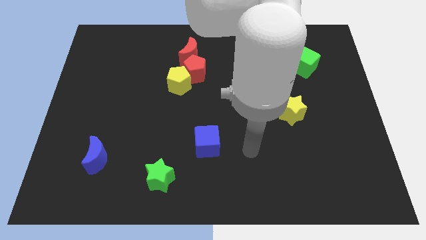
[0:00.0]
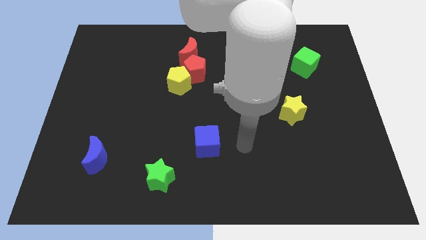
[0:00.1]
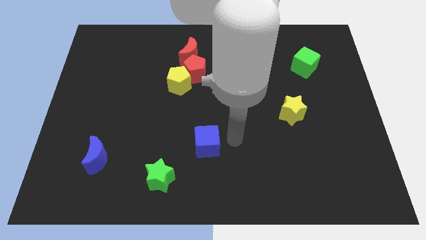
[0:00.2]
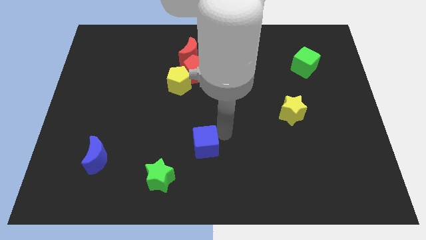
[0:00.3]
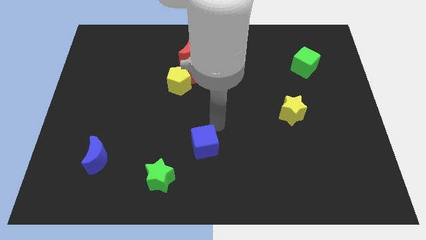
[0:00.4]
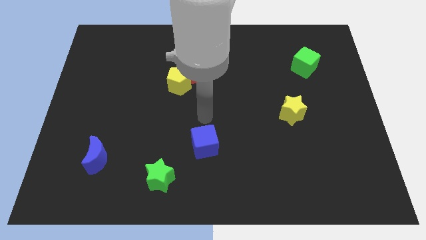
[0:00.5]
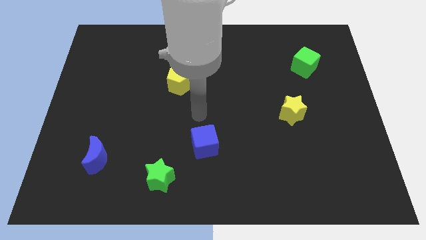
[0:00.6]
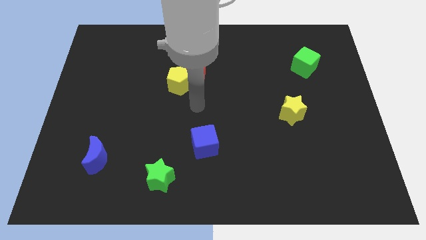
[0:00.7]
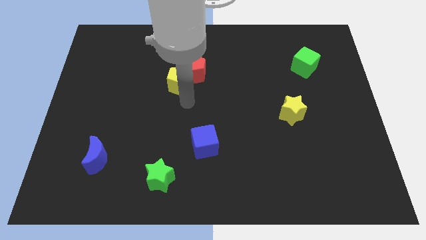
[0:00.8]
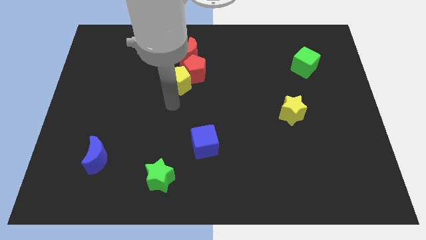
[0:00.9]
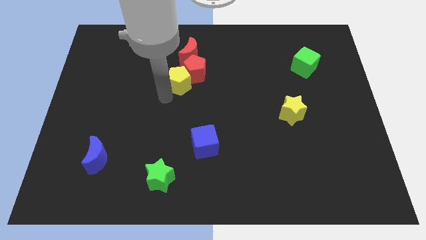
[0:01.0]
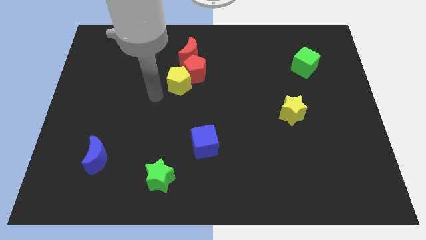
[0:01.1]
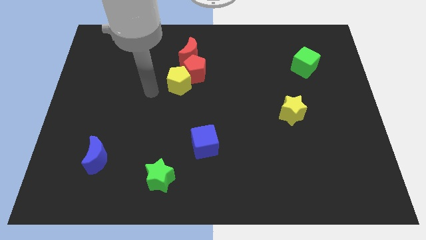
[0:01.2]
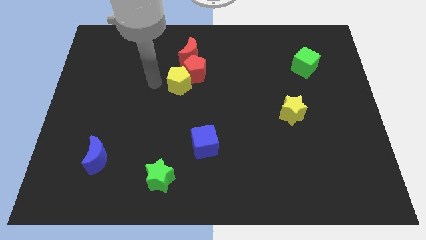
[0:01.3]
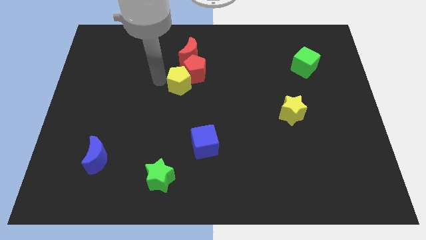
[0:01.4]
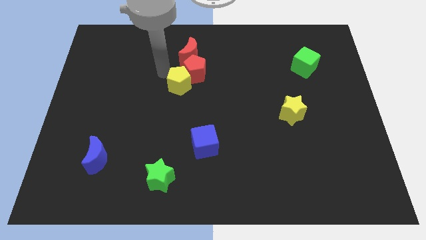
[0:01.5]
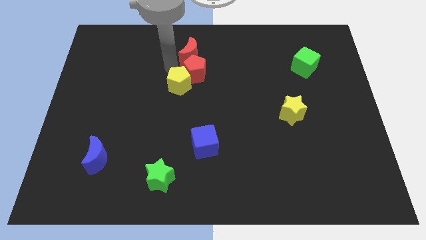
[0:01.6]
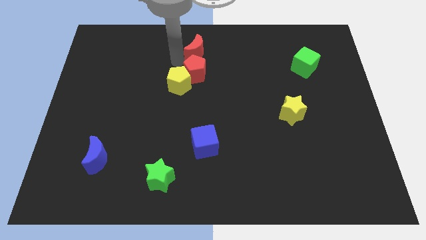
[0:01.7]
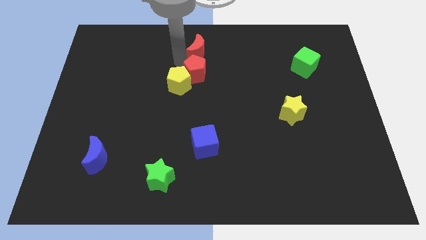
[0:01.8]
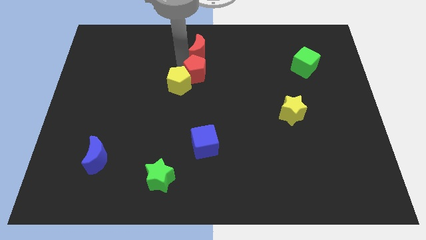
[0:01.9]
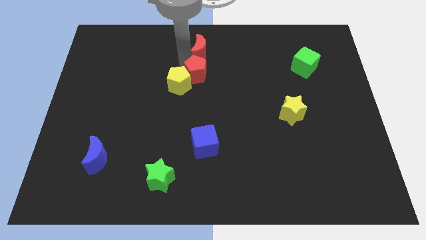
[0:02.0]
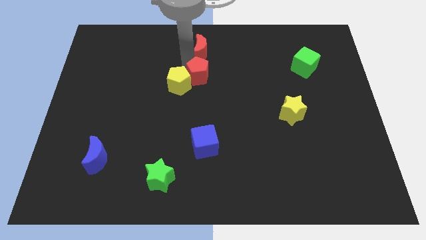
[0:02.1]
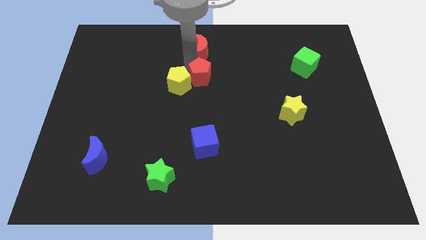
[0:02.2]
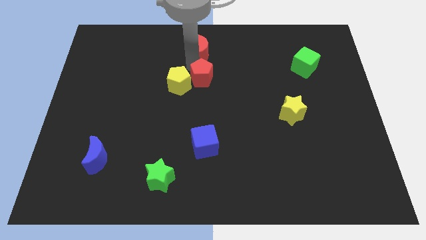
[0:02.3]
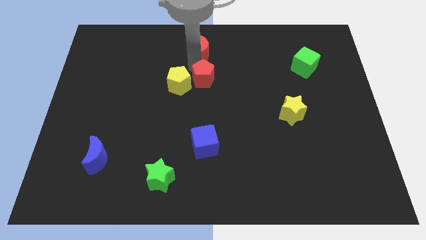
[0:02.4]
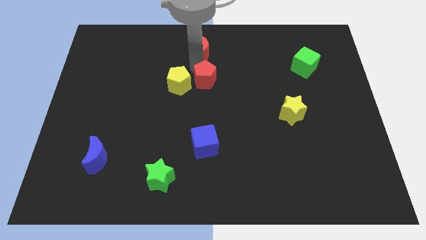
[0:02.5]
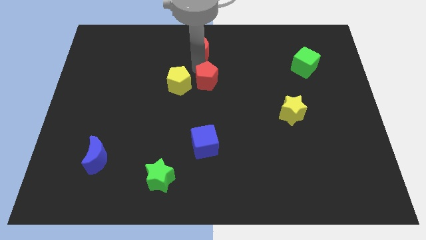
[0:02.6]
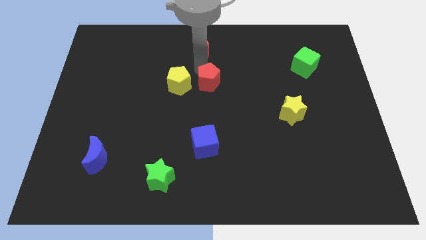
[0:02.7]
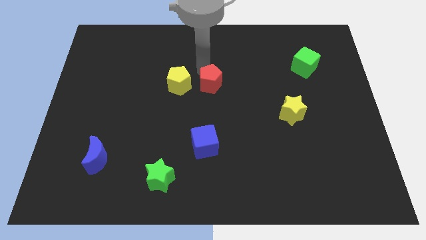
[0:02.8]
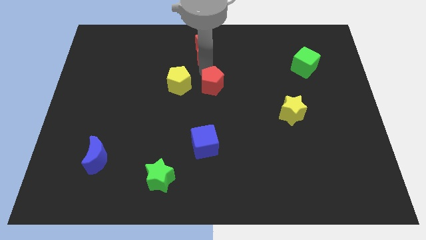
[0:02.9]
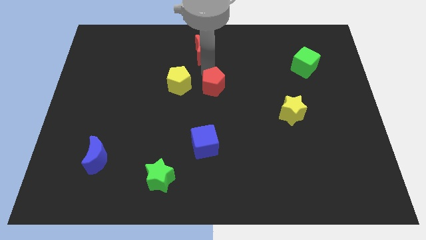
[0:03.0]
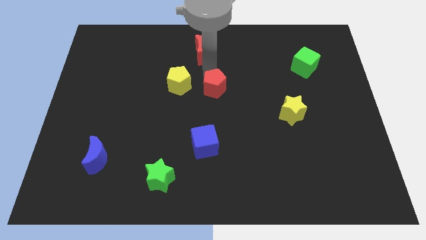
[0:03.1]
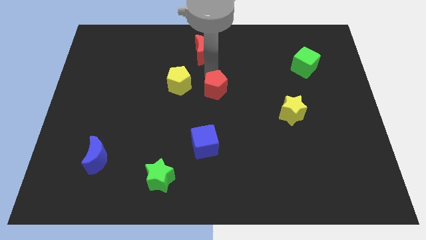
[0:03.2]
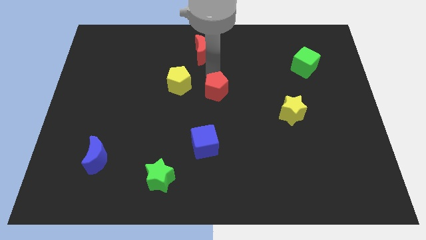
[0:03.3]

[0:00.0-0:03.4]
pull the red pentagon apart from the yellow pentagon and red moon

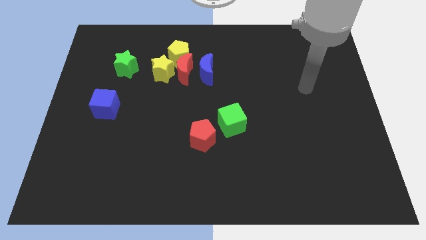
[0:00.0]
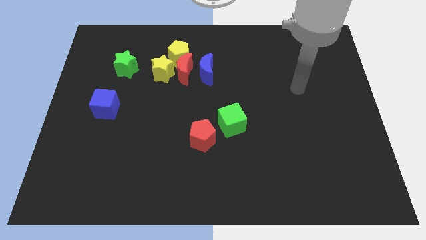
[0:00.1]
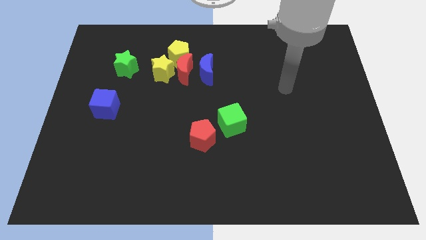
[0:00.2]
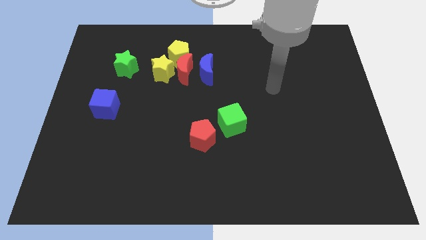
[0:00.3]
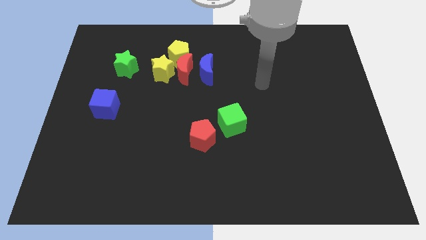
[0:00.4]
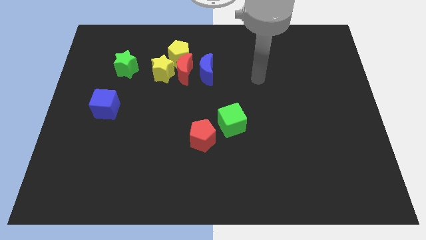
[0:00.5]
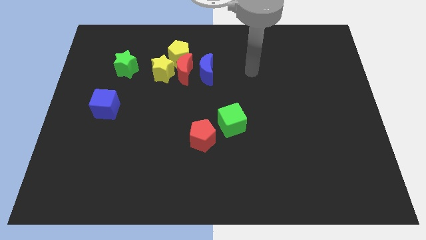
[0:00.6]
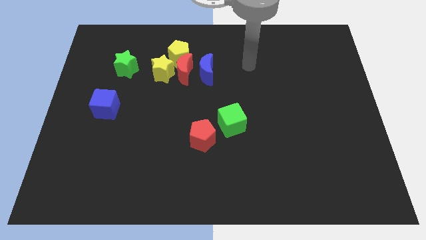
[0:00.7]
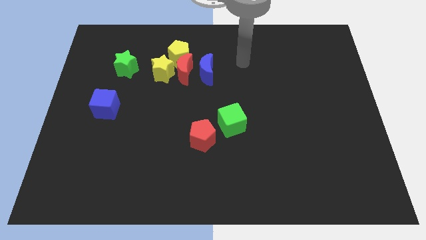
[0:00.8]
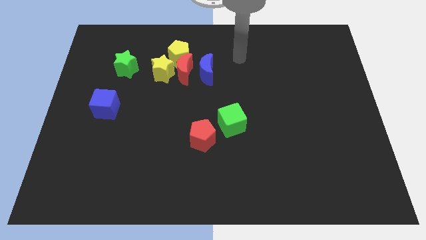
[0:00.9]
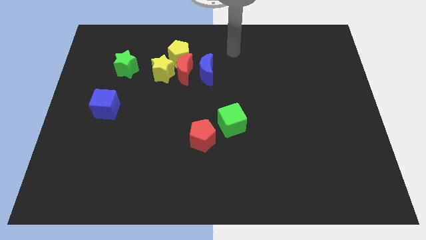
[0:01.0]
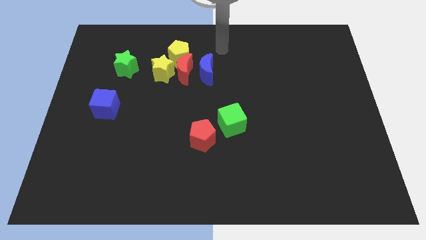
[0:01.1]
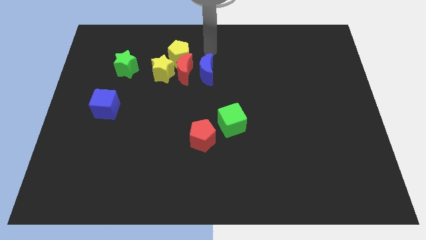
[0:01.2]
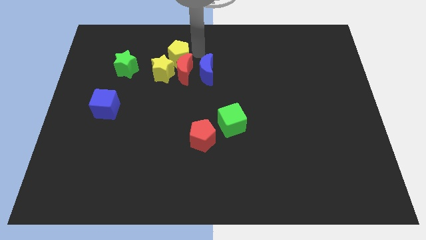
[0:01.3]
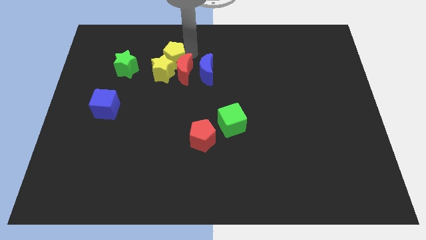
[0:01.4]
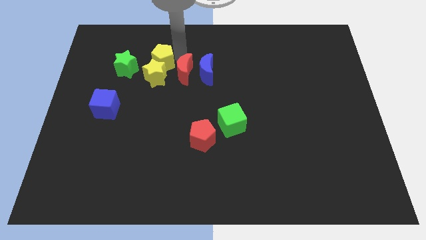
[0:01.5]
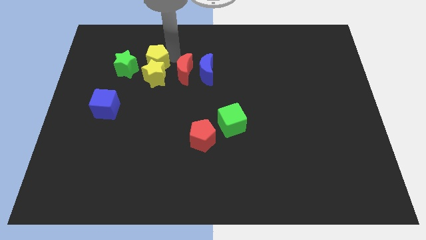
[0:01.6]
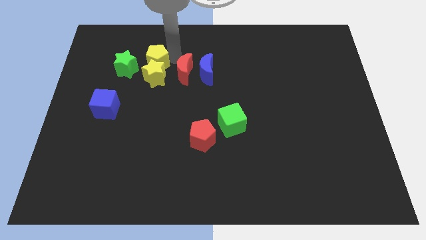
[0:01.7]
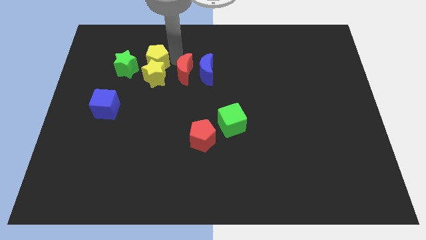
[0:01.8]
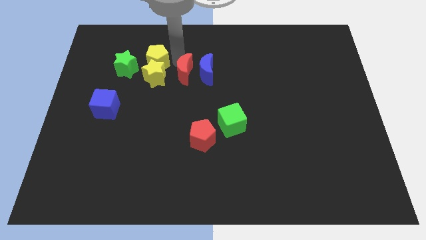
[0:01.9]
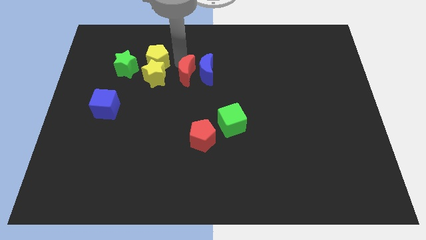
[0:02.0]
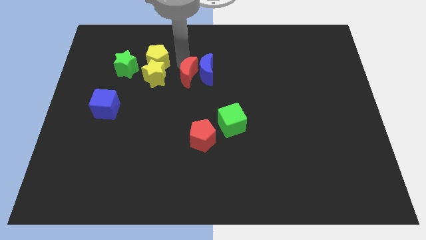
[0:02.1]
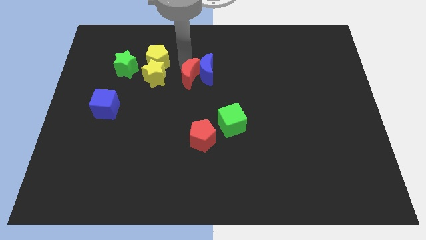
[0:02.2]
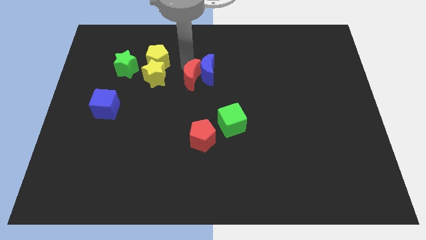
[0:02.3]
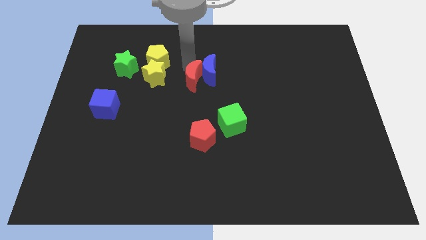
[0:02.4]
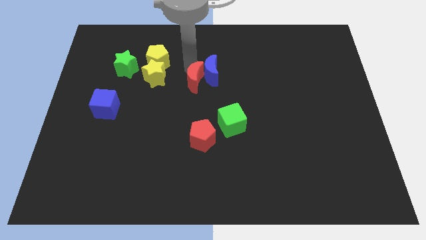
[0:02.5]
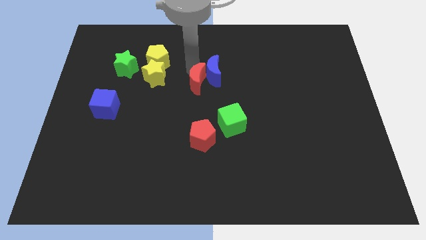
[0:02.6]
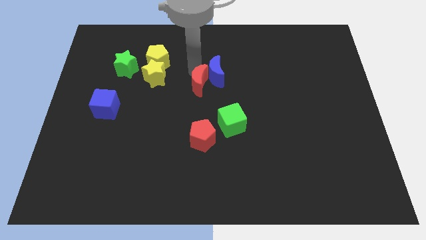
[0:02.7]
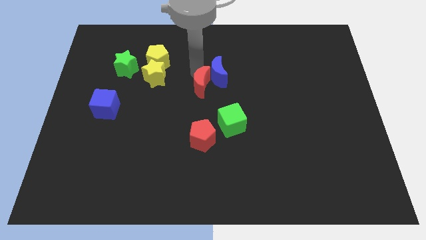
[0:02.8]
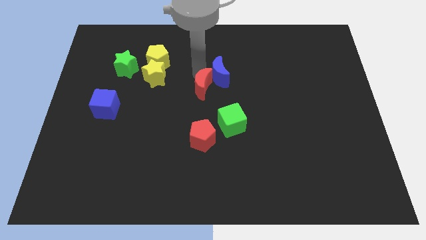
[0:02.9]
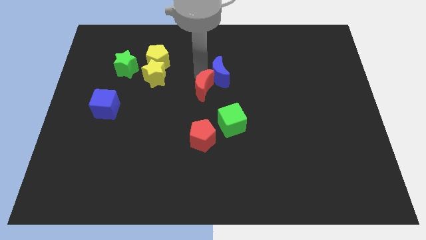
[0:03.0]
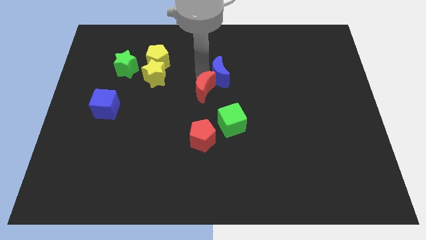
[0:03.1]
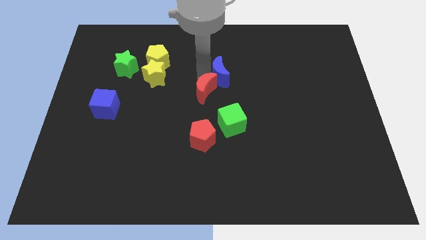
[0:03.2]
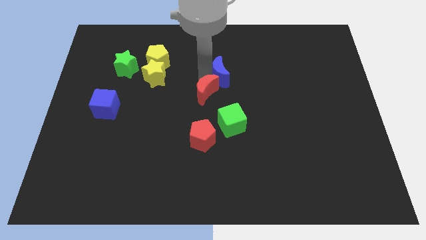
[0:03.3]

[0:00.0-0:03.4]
pull the red moon apart from the clump

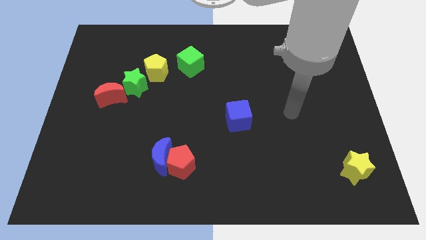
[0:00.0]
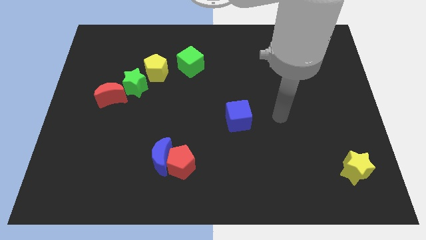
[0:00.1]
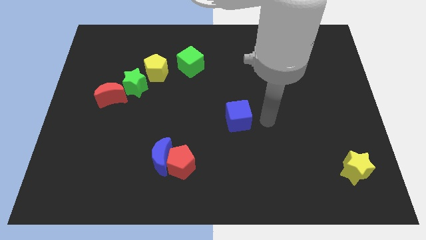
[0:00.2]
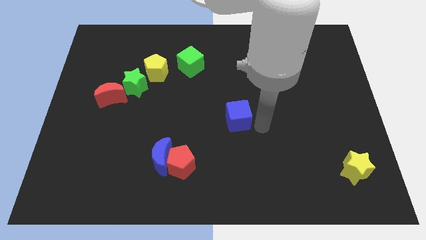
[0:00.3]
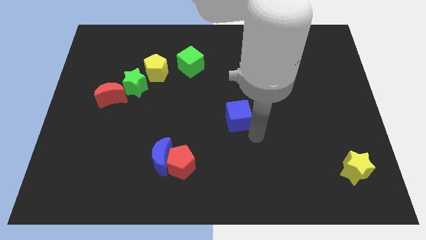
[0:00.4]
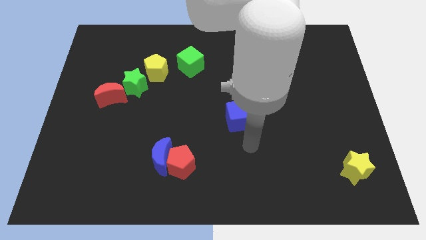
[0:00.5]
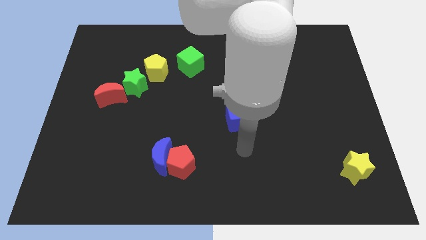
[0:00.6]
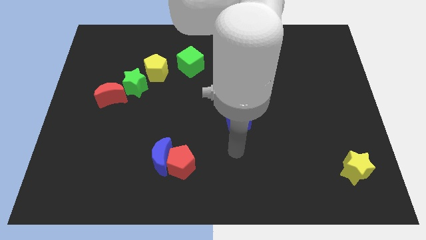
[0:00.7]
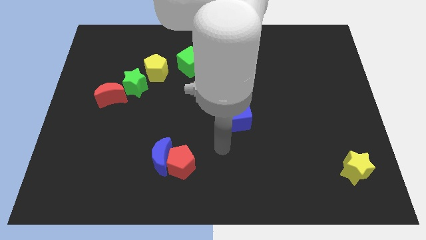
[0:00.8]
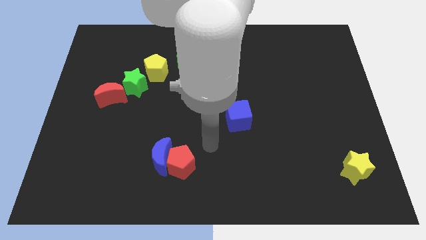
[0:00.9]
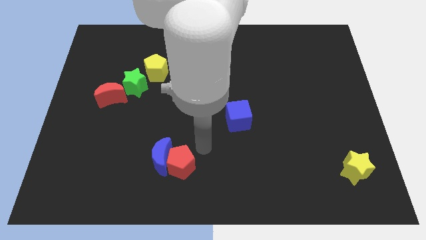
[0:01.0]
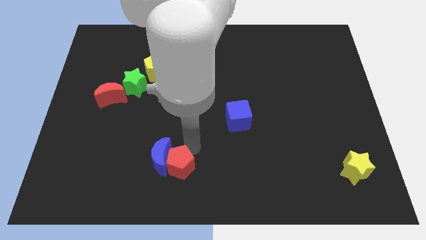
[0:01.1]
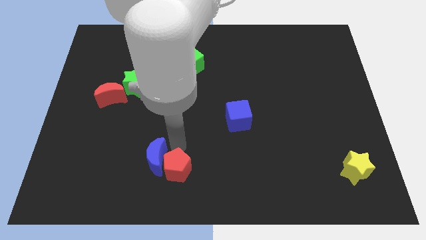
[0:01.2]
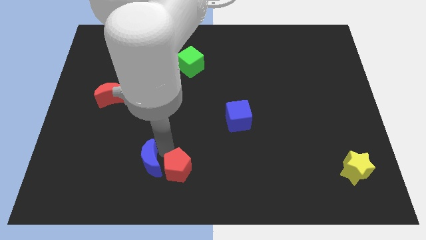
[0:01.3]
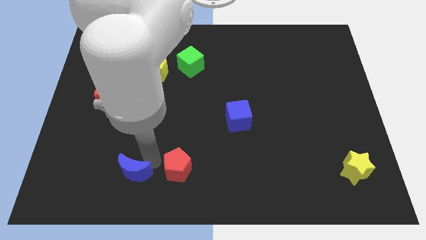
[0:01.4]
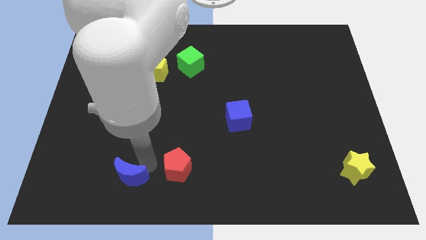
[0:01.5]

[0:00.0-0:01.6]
move the red pentagon away from the blue moon

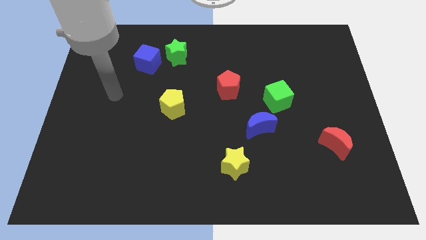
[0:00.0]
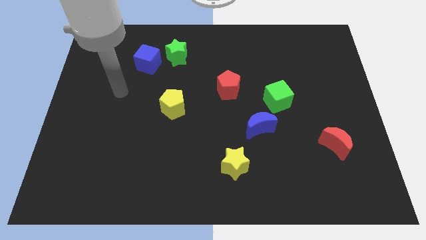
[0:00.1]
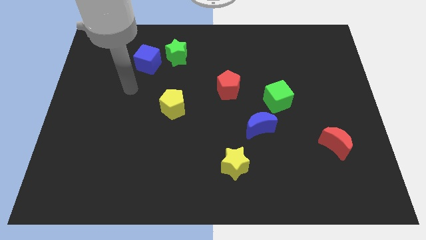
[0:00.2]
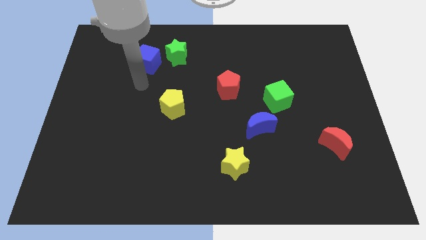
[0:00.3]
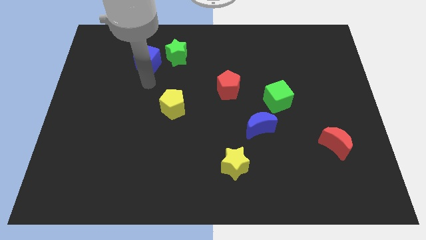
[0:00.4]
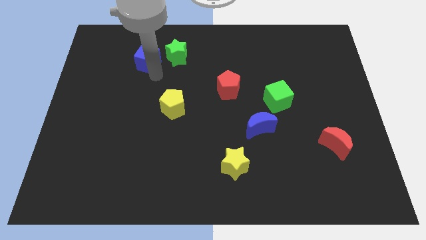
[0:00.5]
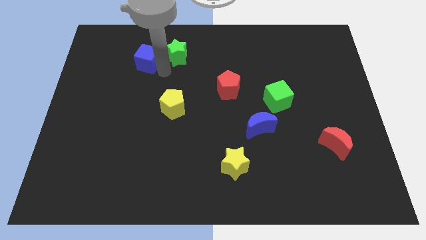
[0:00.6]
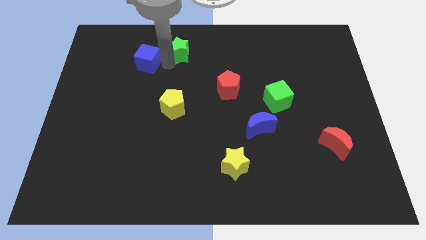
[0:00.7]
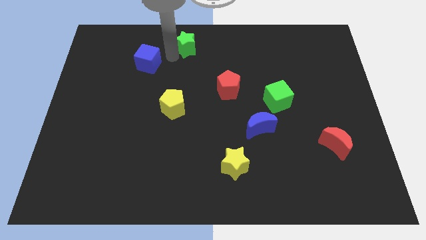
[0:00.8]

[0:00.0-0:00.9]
pull the blue cube apart from the green star
